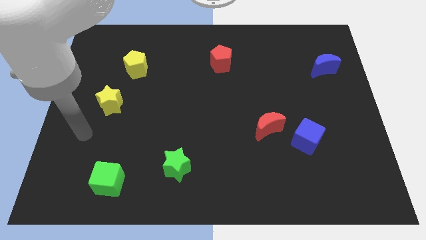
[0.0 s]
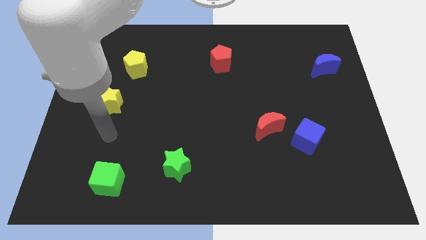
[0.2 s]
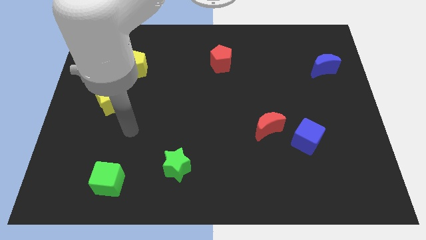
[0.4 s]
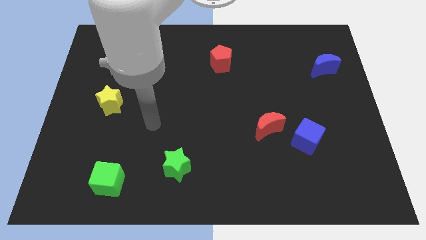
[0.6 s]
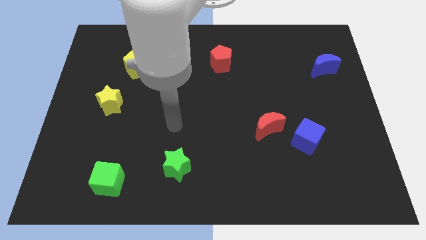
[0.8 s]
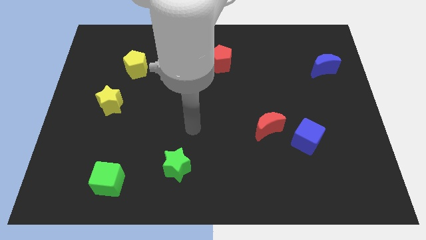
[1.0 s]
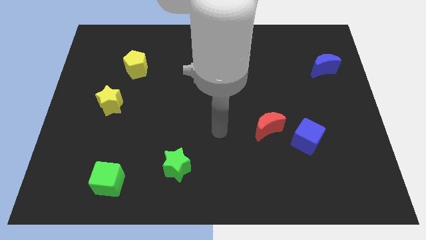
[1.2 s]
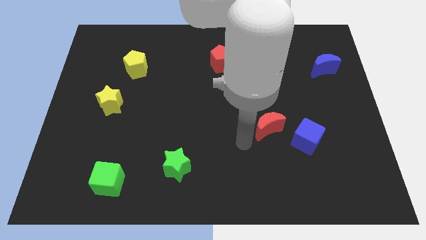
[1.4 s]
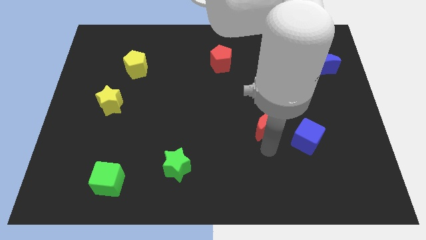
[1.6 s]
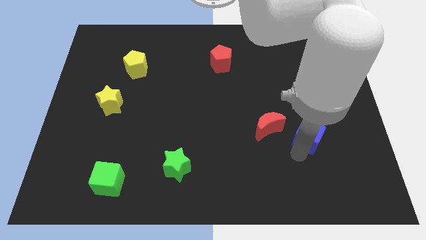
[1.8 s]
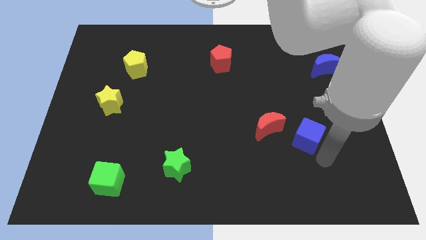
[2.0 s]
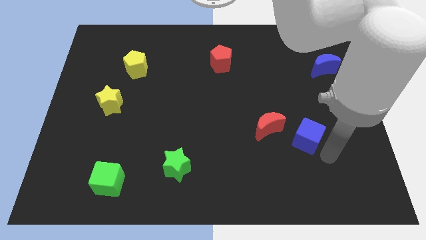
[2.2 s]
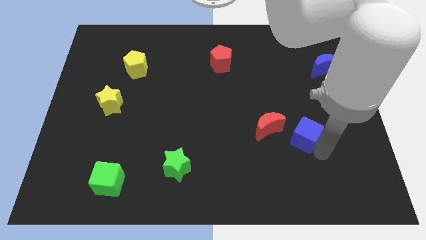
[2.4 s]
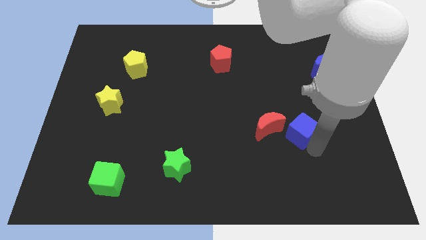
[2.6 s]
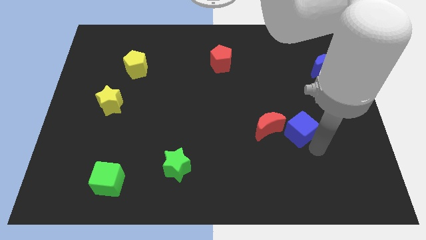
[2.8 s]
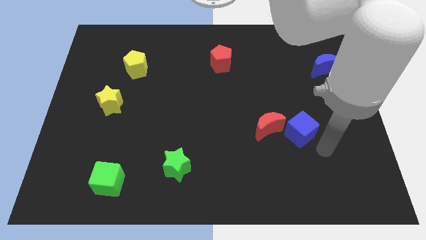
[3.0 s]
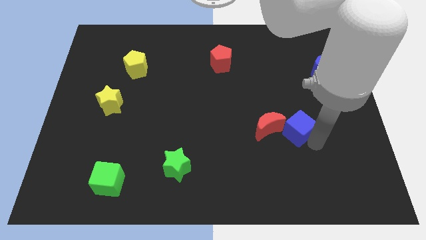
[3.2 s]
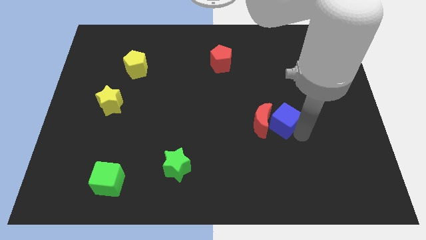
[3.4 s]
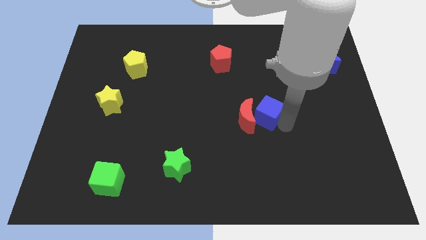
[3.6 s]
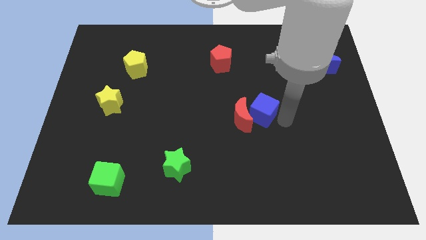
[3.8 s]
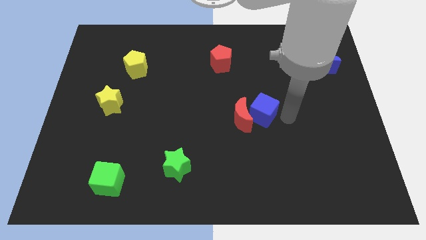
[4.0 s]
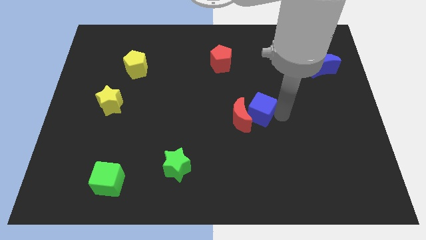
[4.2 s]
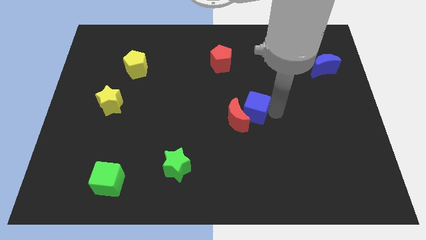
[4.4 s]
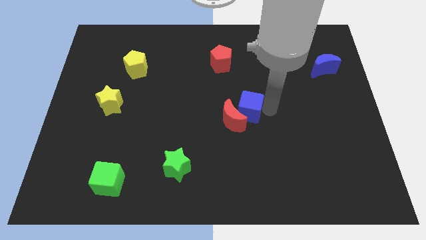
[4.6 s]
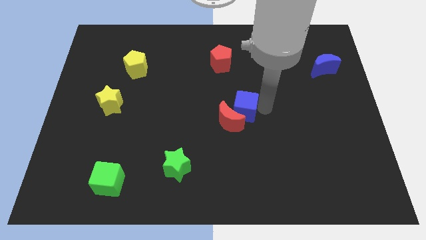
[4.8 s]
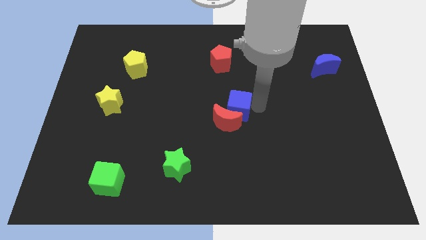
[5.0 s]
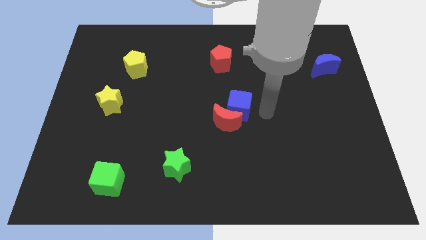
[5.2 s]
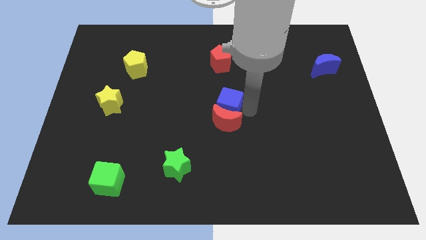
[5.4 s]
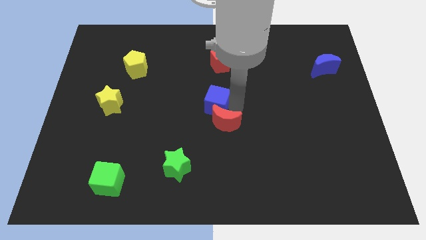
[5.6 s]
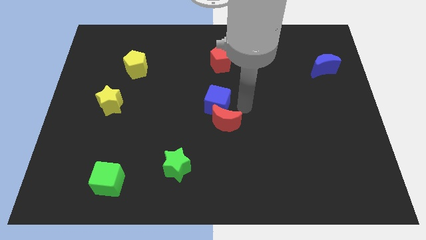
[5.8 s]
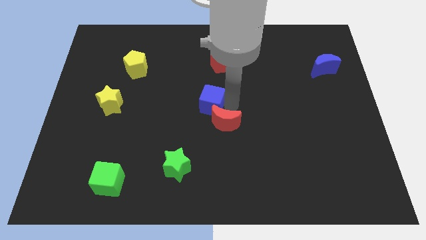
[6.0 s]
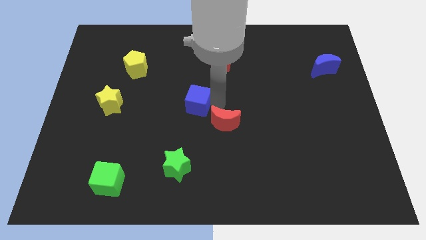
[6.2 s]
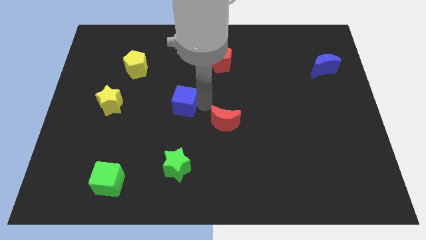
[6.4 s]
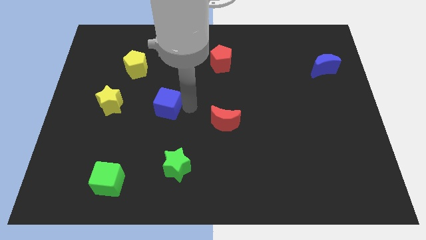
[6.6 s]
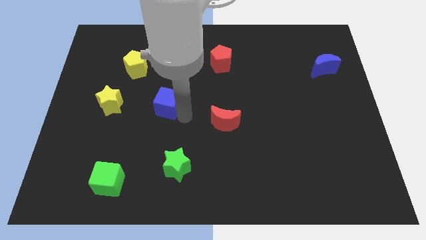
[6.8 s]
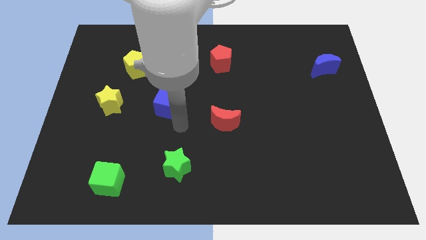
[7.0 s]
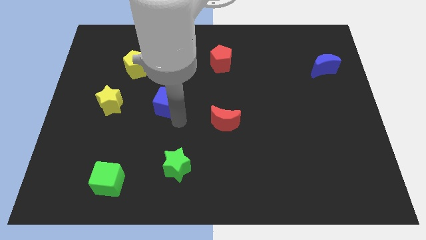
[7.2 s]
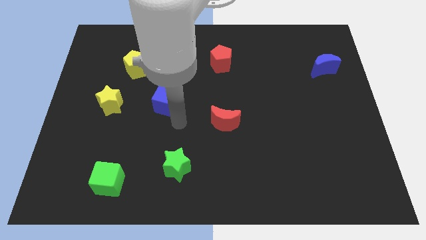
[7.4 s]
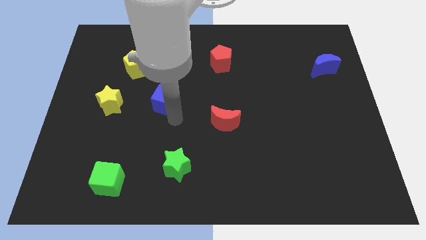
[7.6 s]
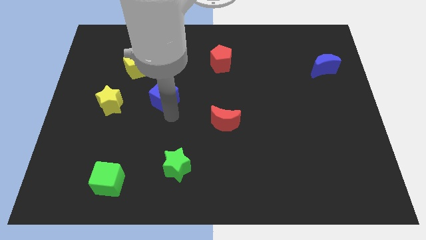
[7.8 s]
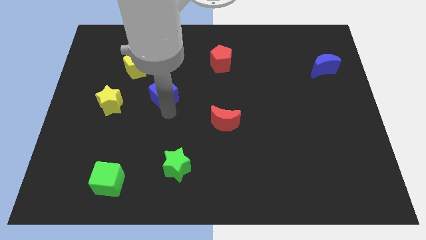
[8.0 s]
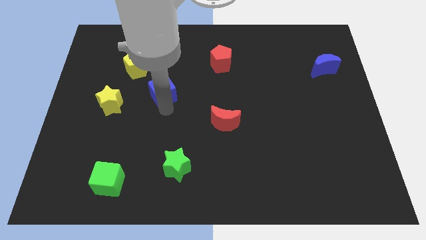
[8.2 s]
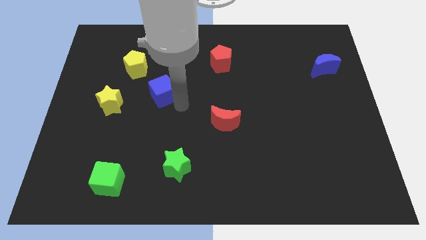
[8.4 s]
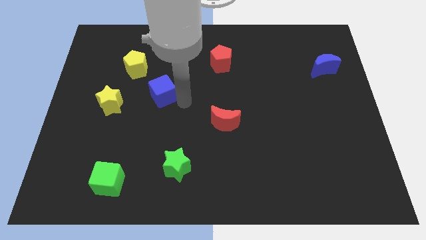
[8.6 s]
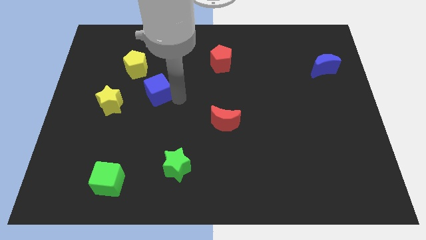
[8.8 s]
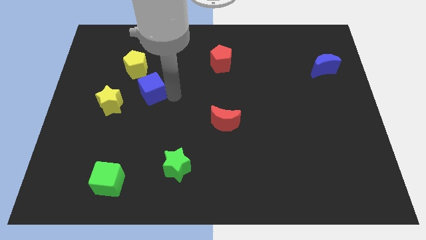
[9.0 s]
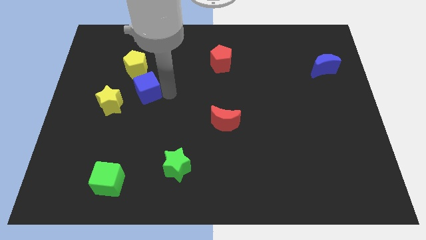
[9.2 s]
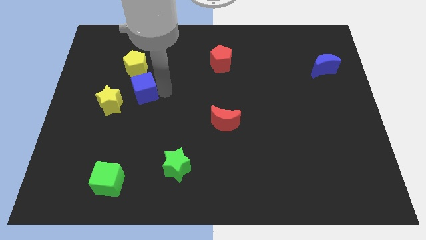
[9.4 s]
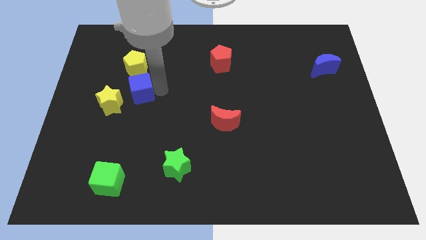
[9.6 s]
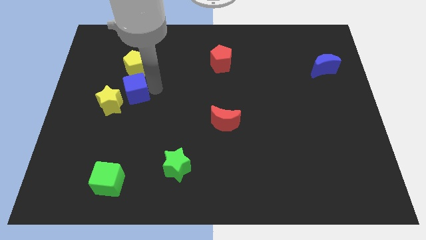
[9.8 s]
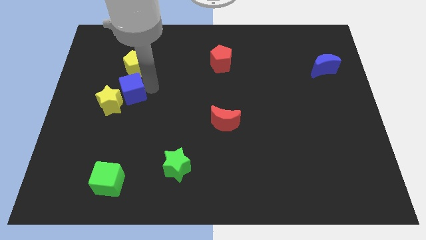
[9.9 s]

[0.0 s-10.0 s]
push the blue cube to the top of the yellow star

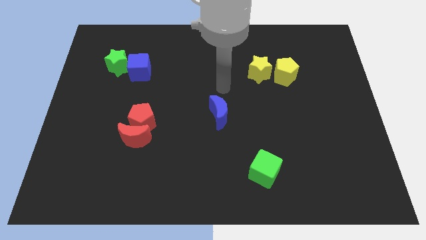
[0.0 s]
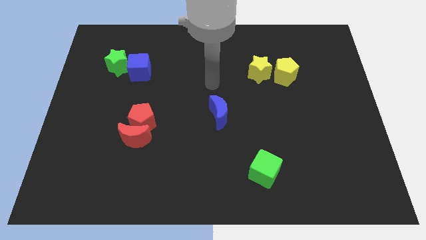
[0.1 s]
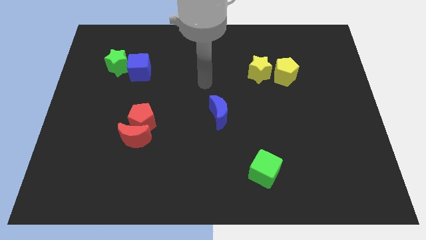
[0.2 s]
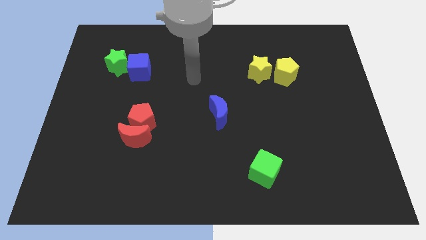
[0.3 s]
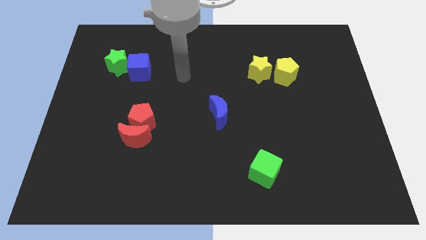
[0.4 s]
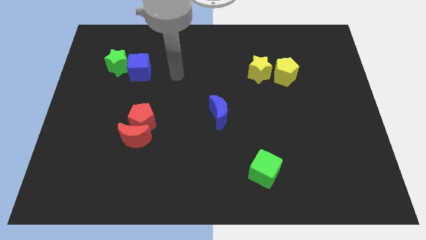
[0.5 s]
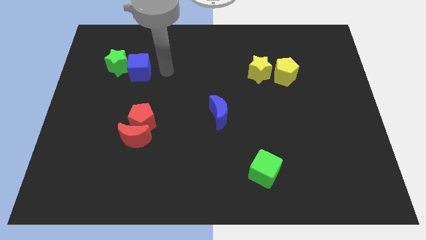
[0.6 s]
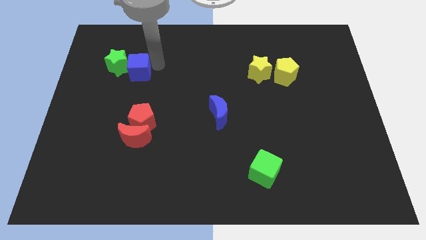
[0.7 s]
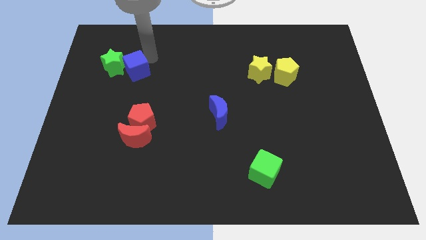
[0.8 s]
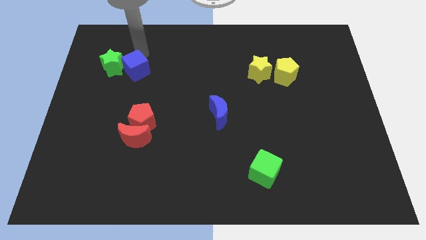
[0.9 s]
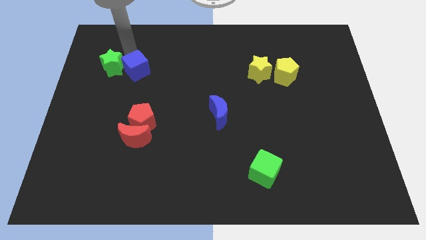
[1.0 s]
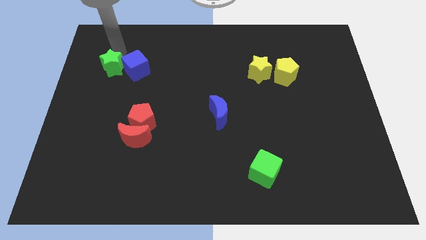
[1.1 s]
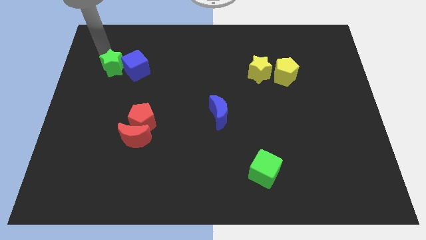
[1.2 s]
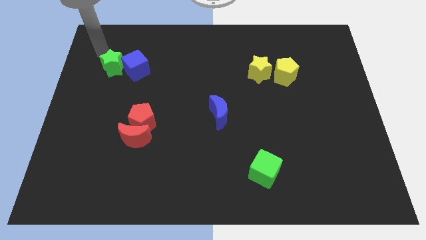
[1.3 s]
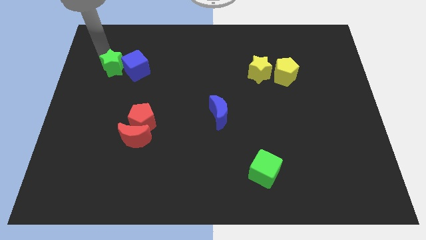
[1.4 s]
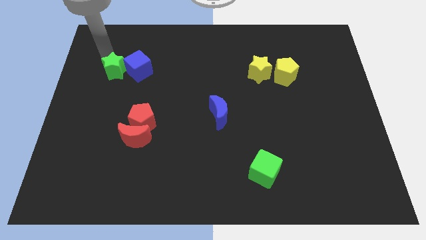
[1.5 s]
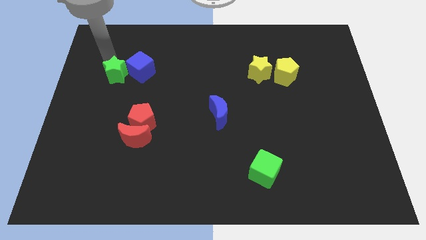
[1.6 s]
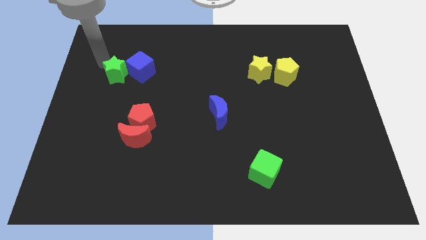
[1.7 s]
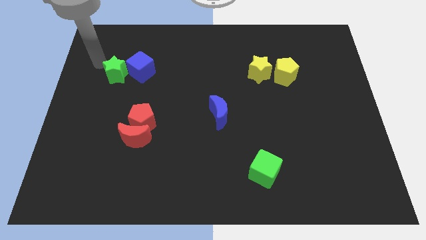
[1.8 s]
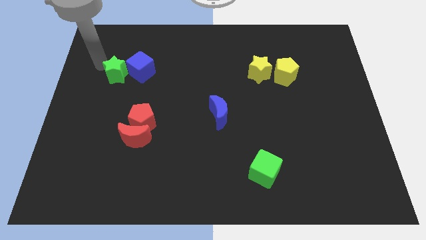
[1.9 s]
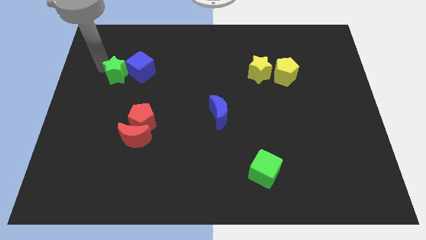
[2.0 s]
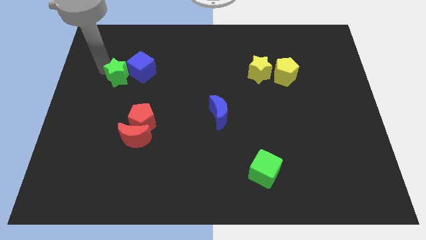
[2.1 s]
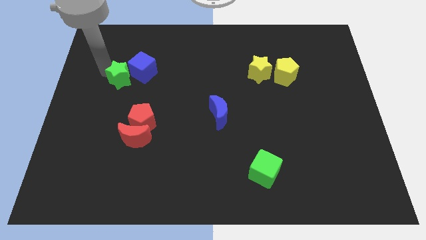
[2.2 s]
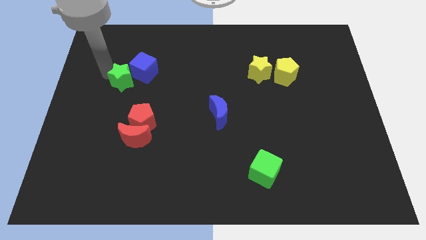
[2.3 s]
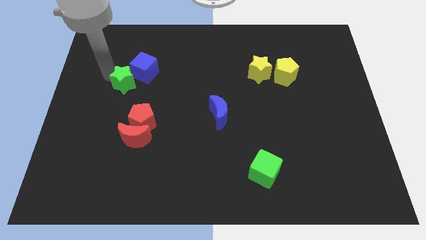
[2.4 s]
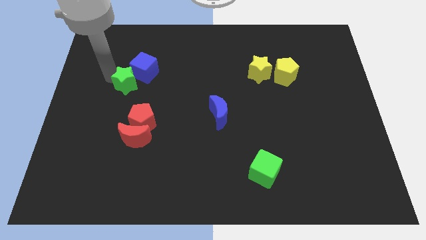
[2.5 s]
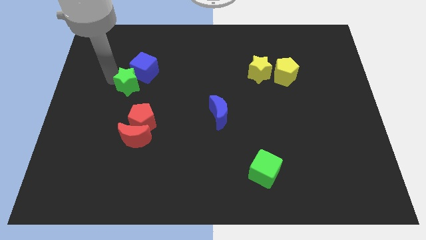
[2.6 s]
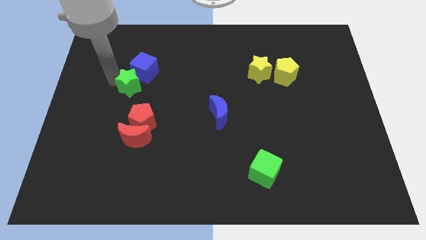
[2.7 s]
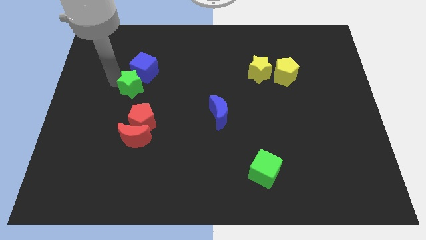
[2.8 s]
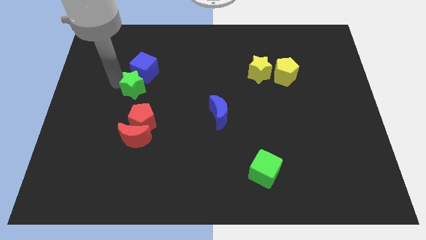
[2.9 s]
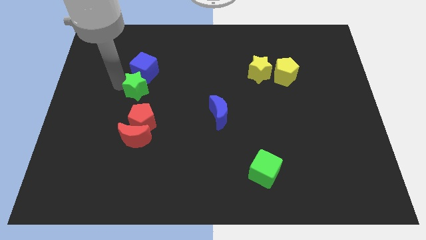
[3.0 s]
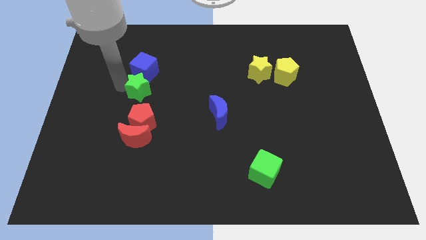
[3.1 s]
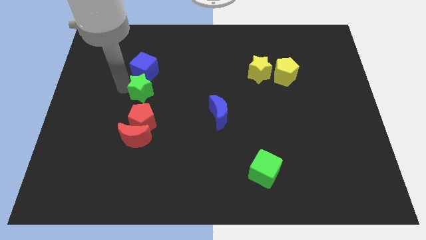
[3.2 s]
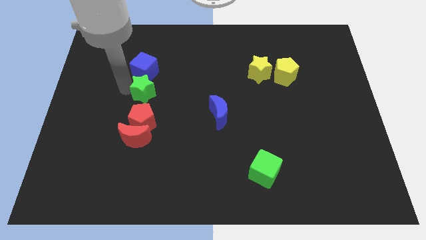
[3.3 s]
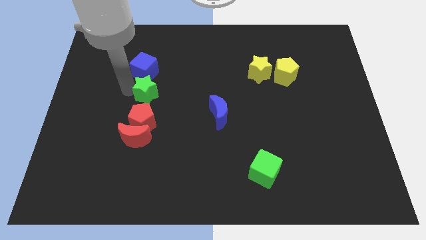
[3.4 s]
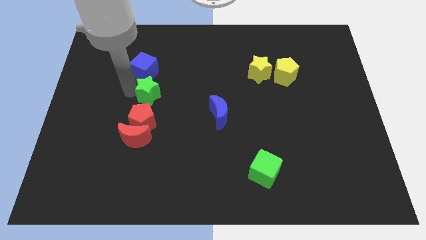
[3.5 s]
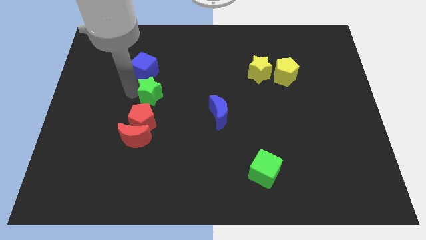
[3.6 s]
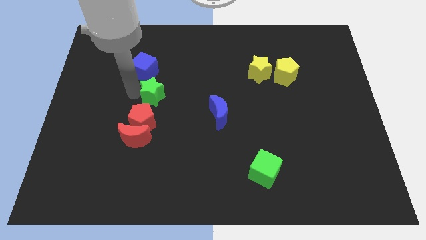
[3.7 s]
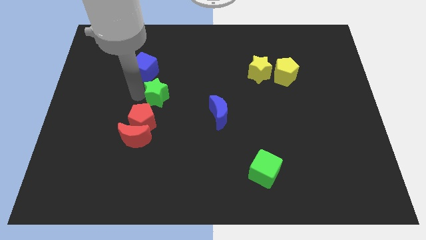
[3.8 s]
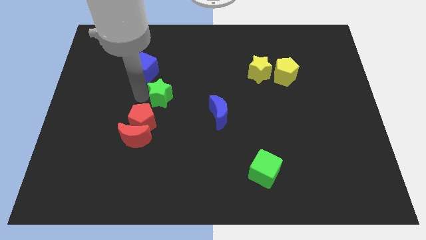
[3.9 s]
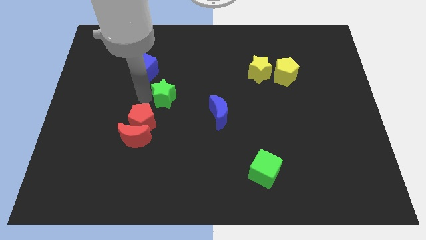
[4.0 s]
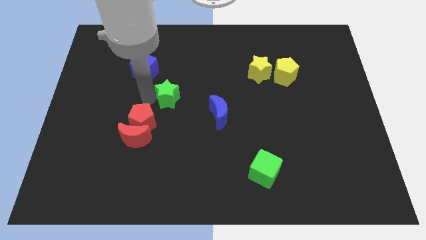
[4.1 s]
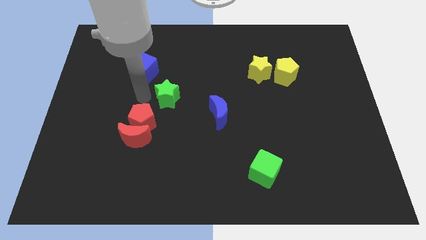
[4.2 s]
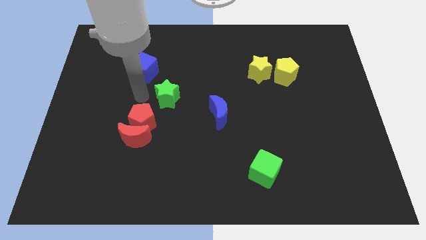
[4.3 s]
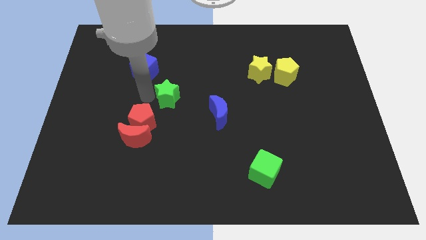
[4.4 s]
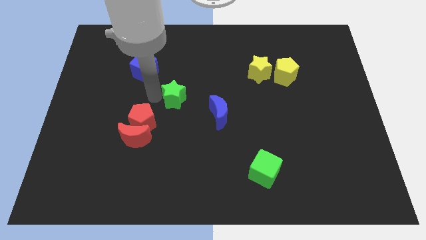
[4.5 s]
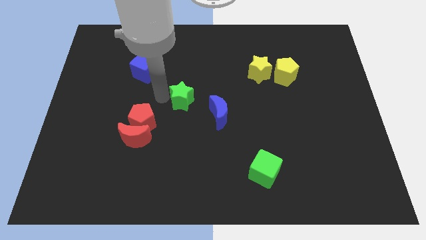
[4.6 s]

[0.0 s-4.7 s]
push the green star to the top left of the blue moon
